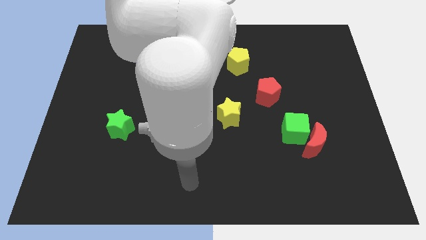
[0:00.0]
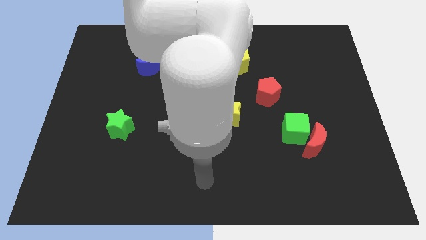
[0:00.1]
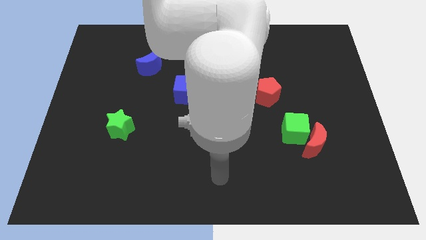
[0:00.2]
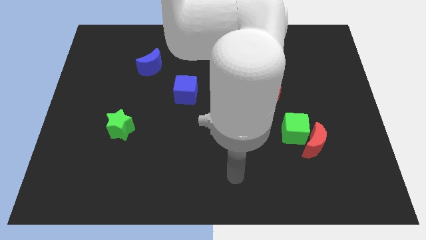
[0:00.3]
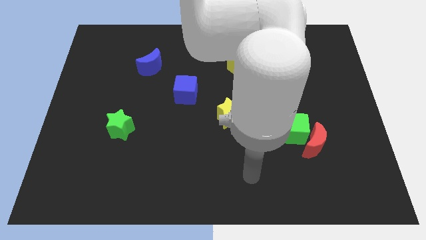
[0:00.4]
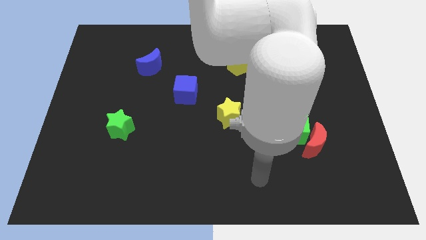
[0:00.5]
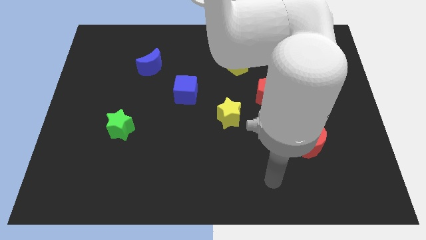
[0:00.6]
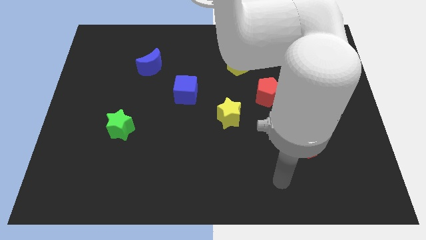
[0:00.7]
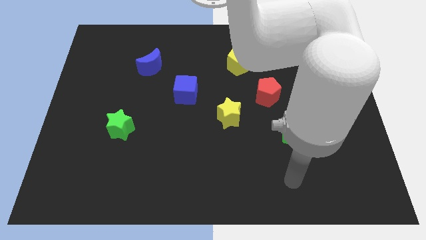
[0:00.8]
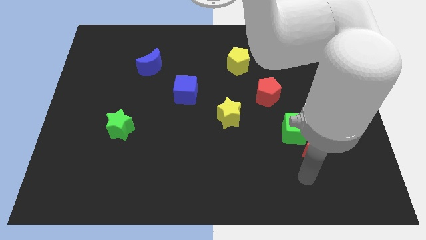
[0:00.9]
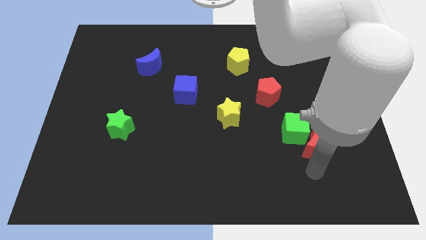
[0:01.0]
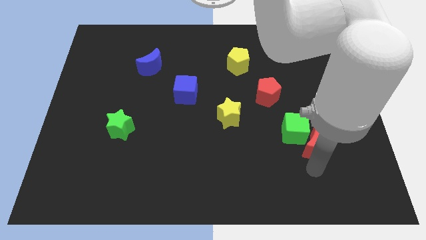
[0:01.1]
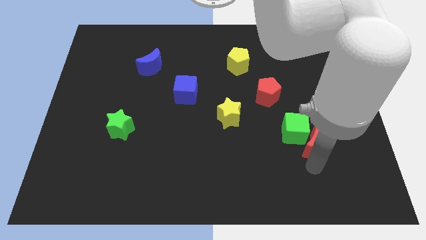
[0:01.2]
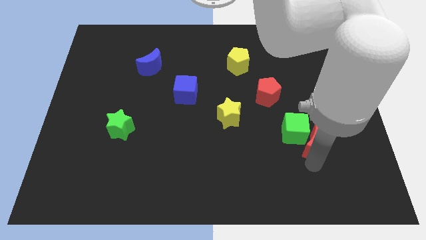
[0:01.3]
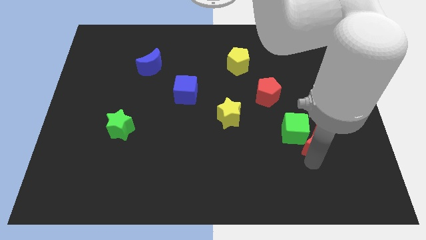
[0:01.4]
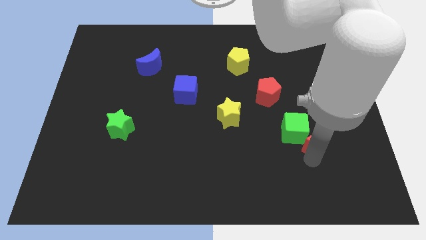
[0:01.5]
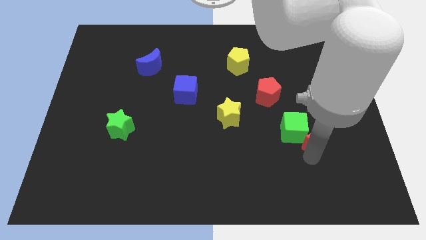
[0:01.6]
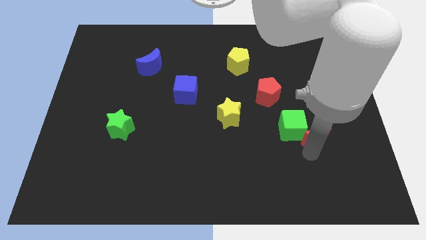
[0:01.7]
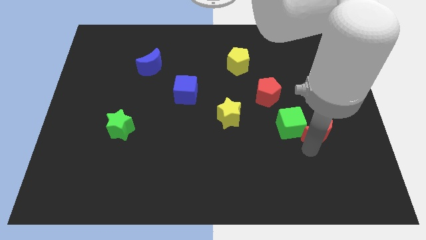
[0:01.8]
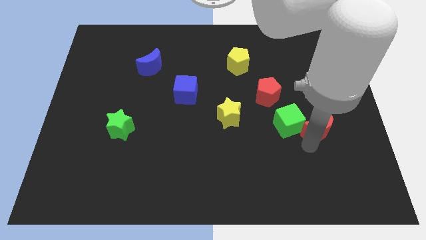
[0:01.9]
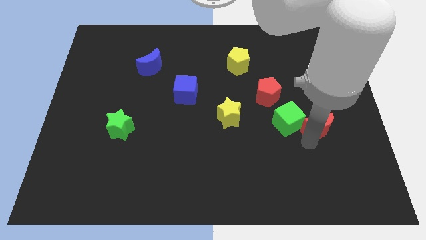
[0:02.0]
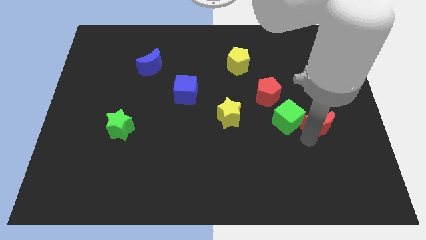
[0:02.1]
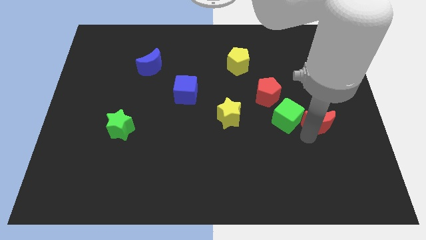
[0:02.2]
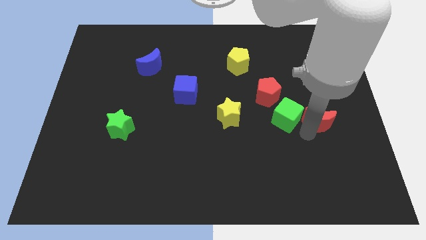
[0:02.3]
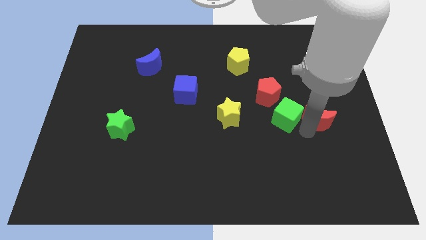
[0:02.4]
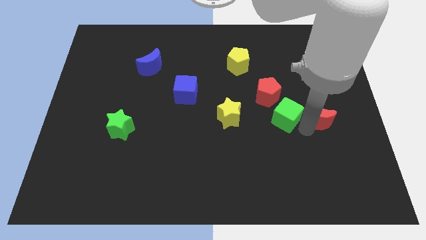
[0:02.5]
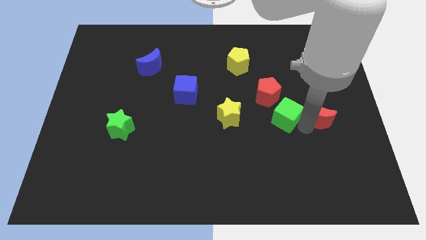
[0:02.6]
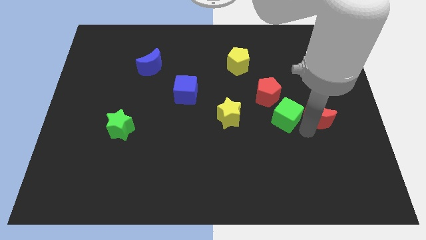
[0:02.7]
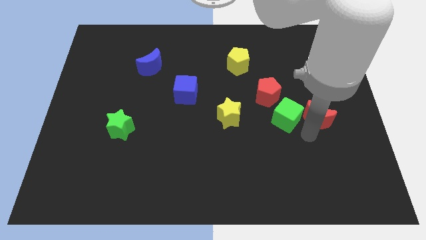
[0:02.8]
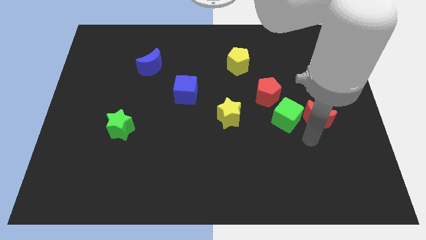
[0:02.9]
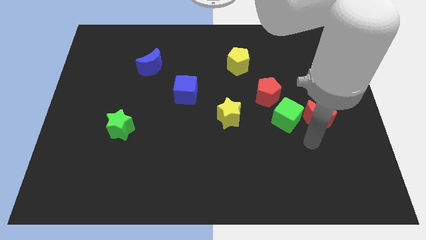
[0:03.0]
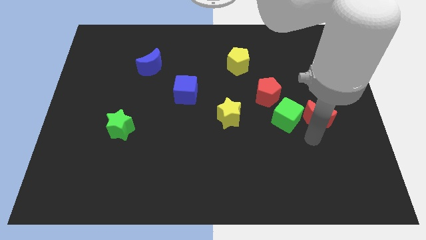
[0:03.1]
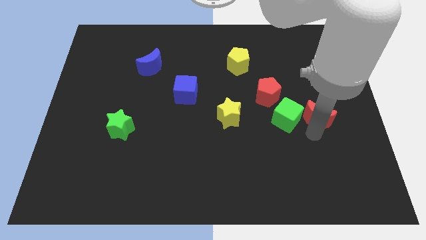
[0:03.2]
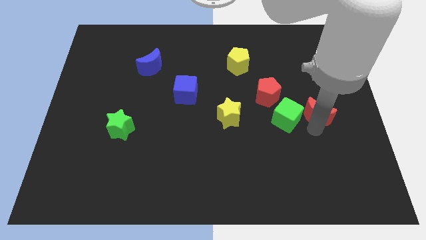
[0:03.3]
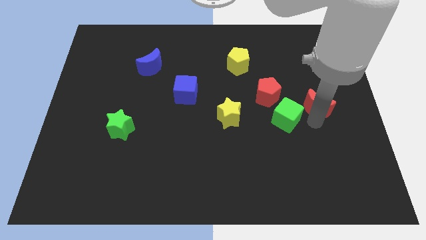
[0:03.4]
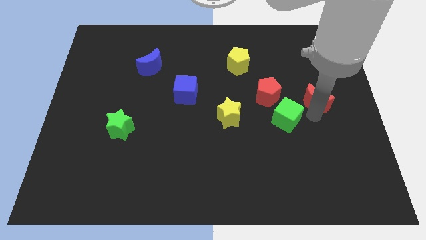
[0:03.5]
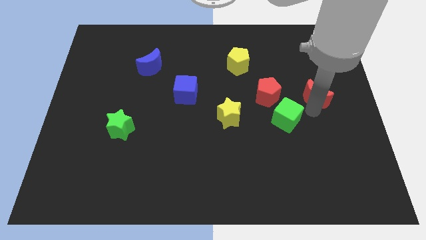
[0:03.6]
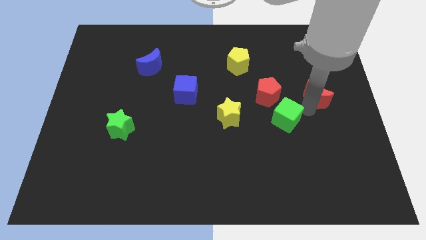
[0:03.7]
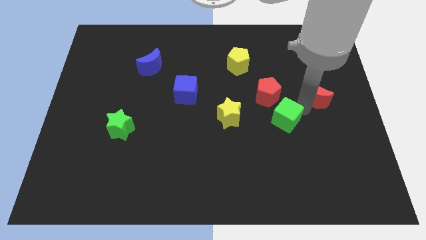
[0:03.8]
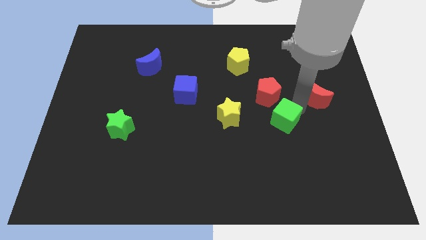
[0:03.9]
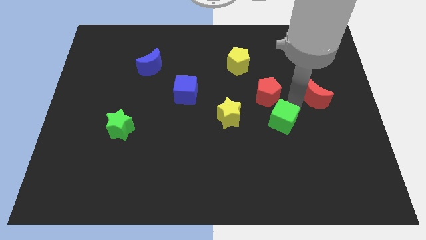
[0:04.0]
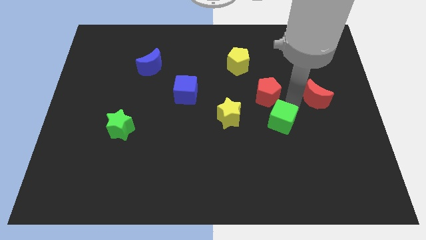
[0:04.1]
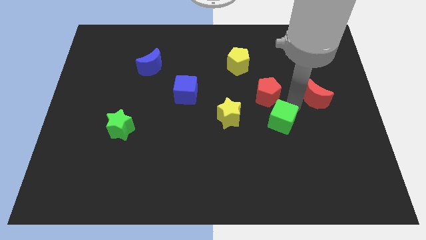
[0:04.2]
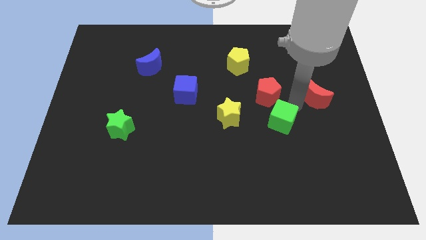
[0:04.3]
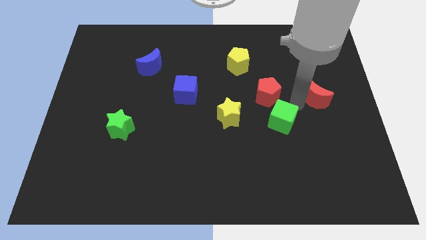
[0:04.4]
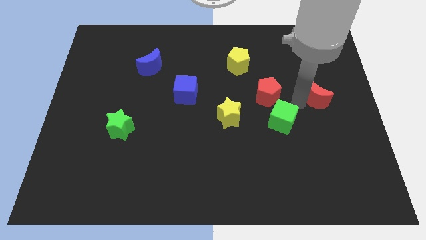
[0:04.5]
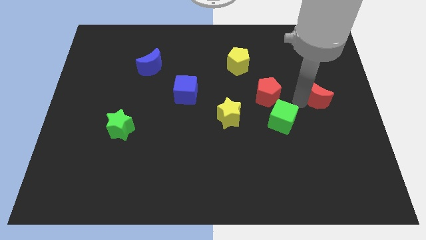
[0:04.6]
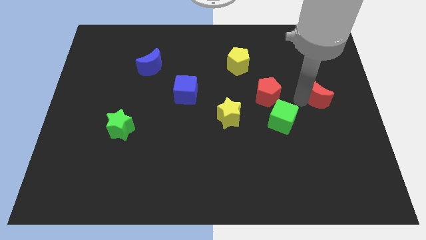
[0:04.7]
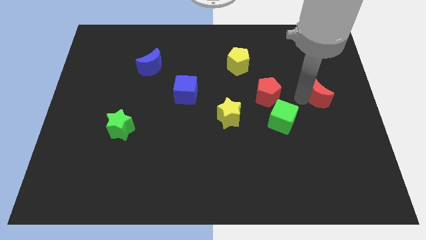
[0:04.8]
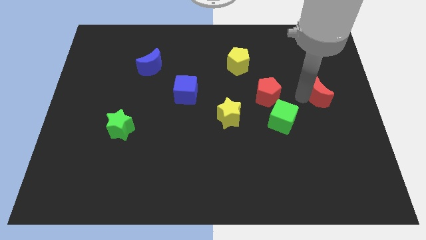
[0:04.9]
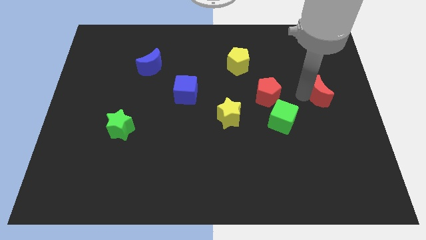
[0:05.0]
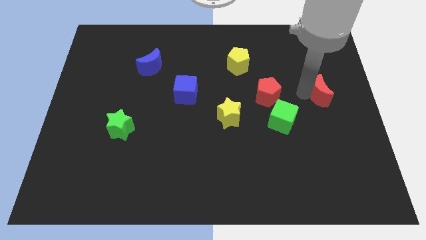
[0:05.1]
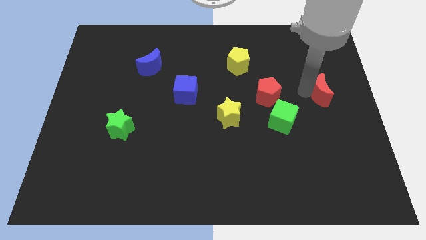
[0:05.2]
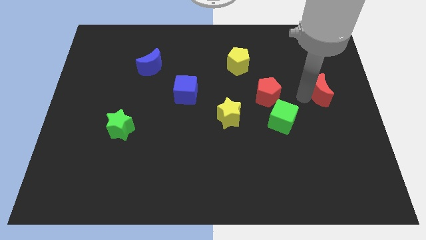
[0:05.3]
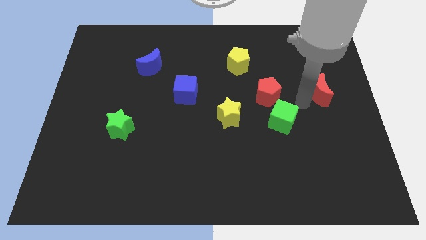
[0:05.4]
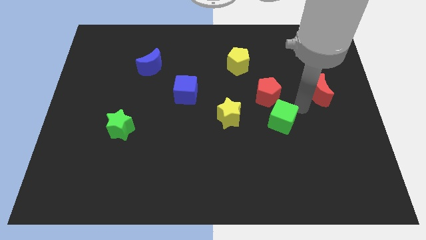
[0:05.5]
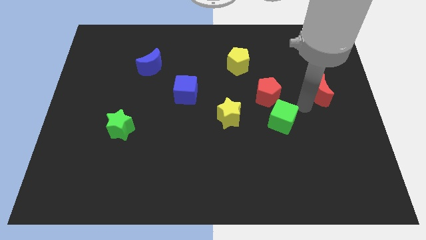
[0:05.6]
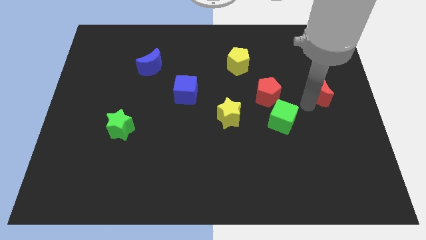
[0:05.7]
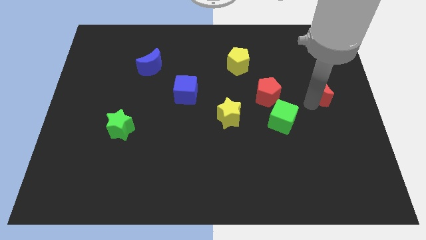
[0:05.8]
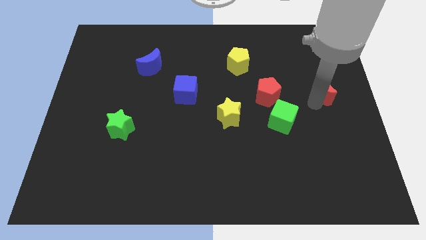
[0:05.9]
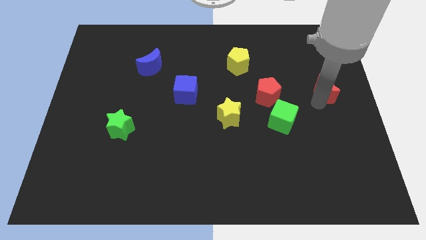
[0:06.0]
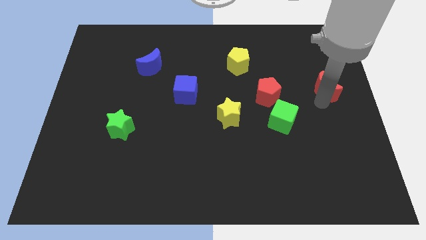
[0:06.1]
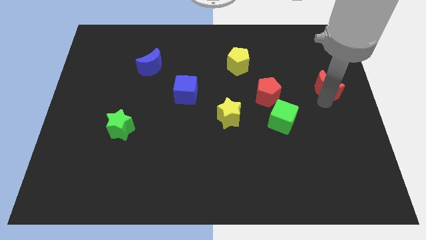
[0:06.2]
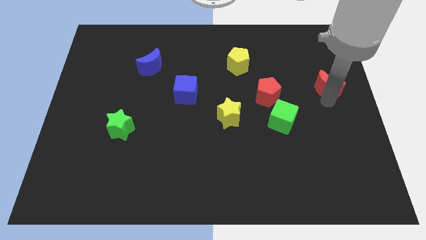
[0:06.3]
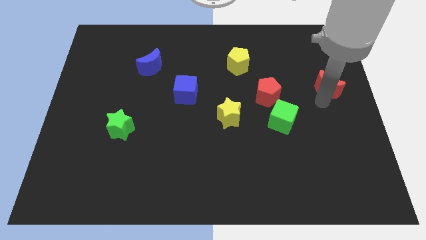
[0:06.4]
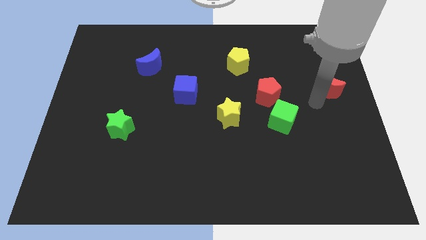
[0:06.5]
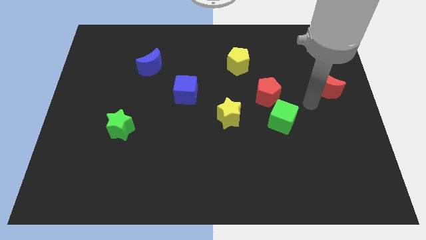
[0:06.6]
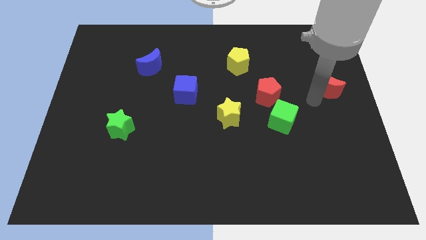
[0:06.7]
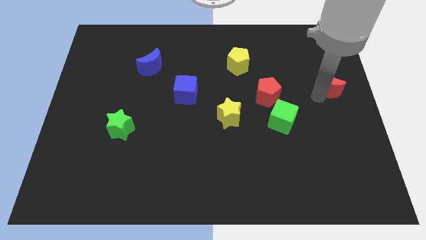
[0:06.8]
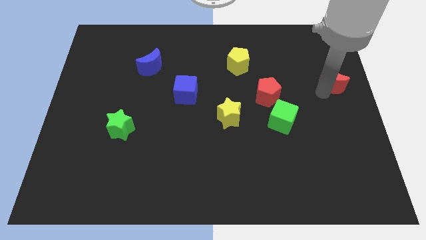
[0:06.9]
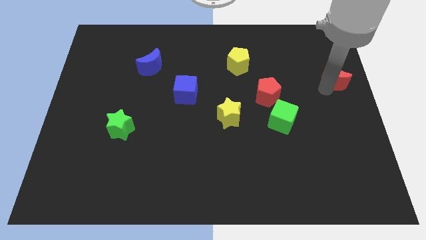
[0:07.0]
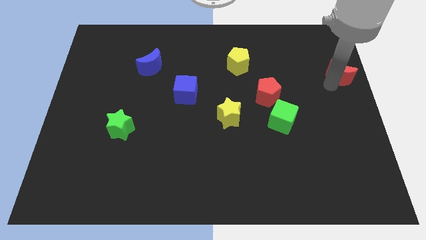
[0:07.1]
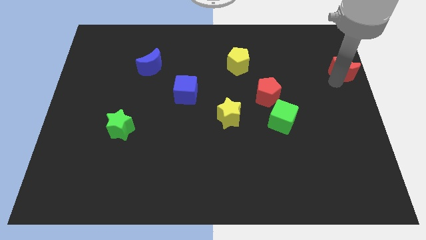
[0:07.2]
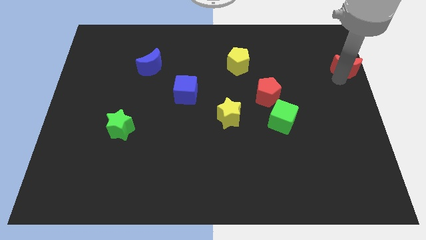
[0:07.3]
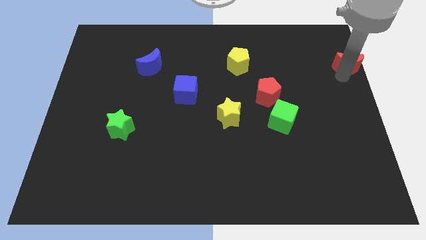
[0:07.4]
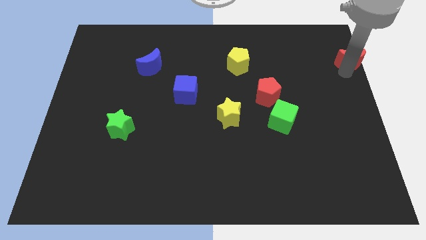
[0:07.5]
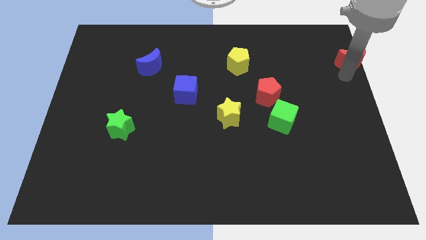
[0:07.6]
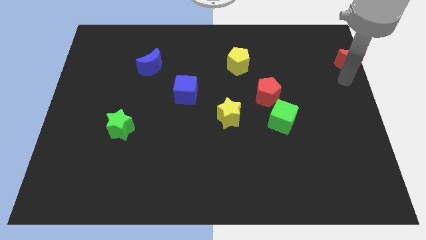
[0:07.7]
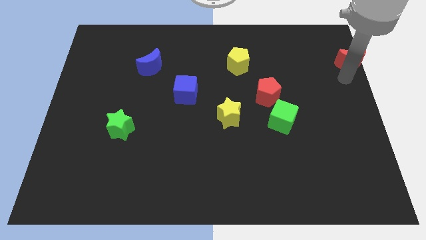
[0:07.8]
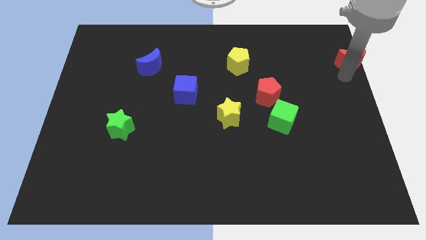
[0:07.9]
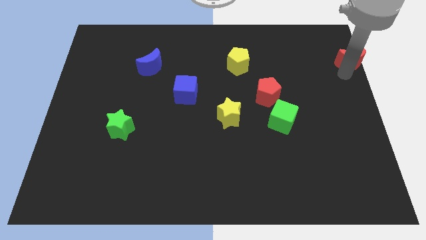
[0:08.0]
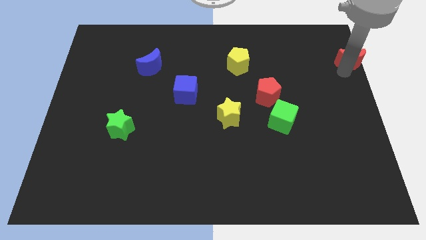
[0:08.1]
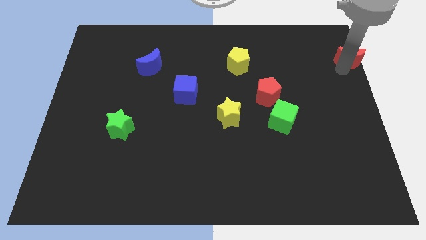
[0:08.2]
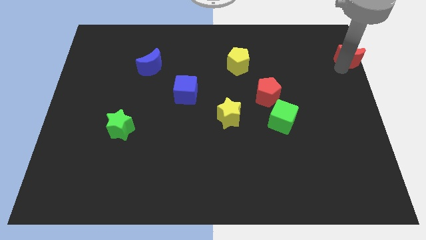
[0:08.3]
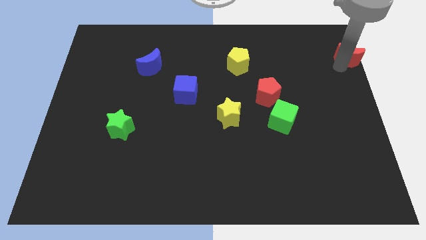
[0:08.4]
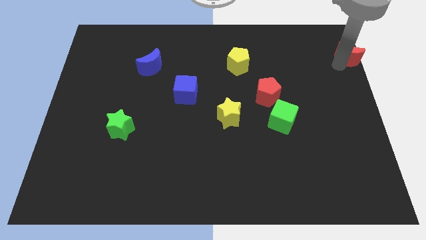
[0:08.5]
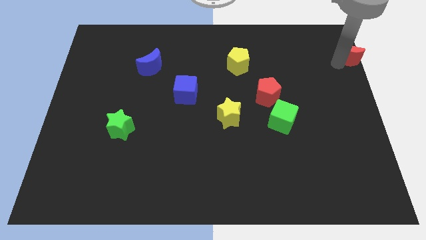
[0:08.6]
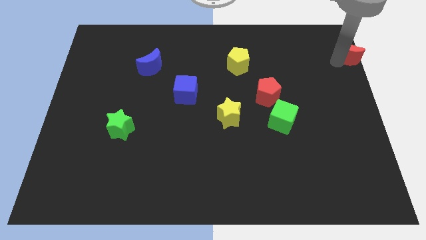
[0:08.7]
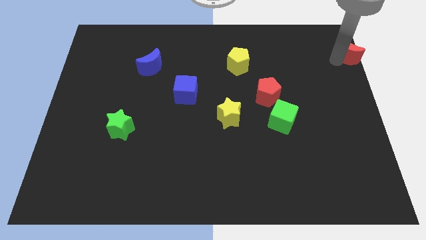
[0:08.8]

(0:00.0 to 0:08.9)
slide the red moon to the top right of the board
